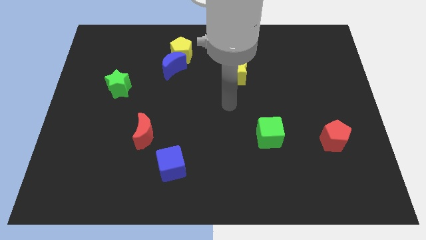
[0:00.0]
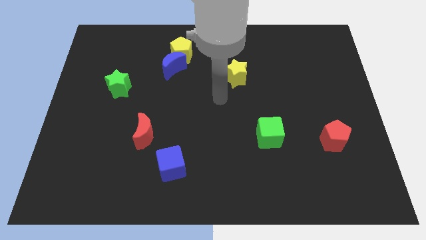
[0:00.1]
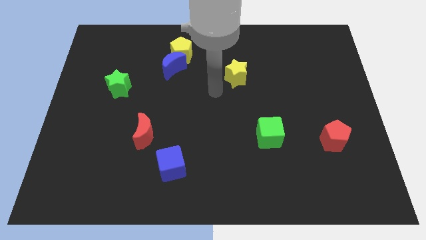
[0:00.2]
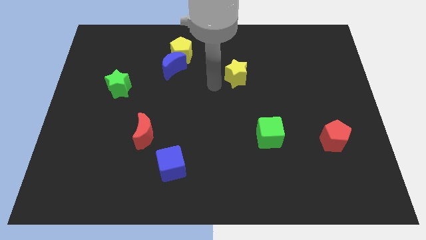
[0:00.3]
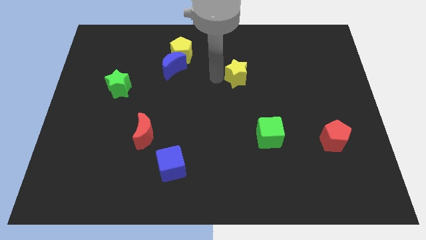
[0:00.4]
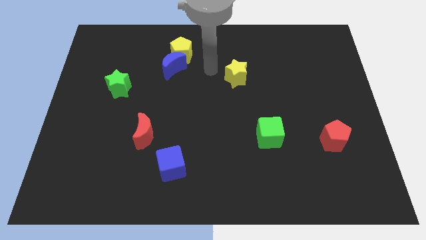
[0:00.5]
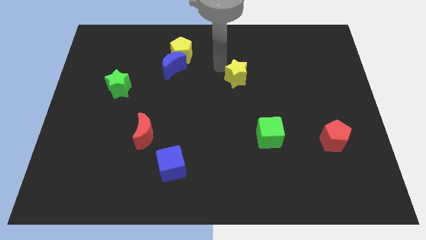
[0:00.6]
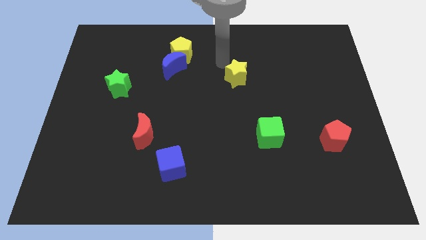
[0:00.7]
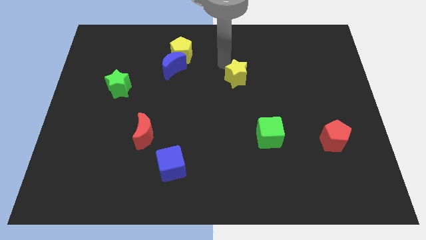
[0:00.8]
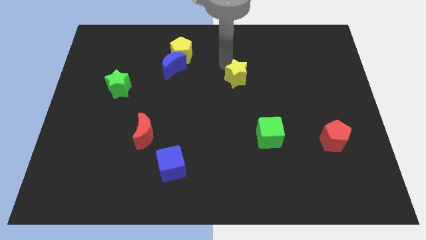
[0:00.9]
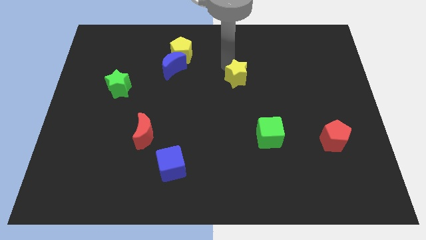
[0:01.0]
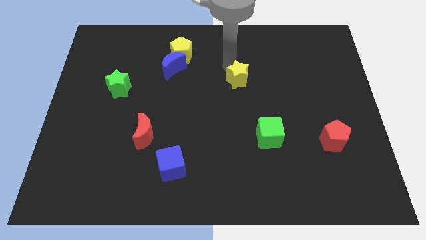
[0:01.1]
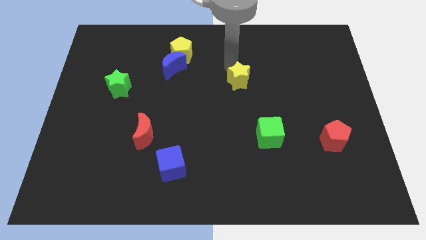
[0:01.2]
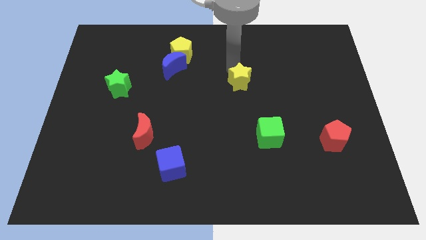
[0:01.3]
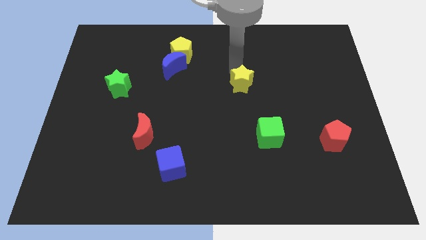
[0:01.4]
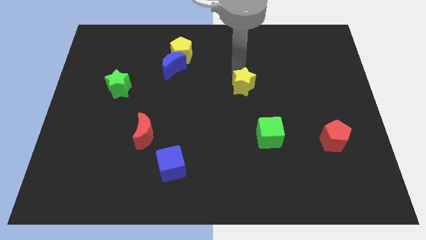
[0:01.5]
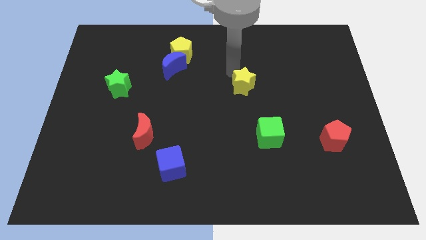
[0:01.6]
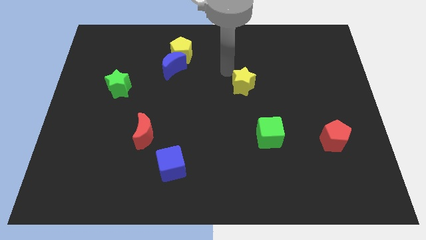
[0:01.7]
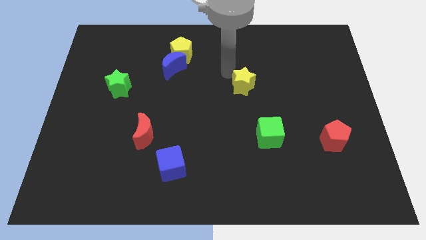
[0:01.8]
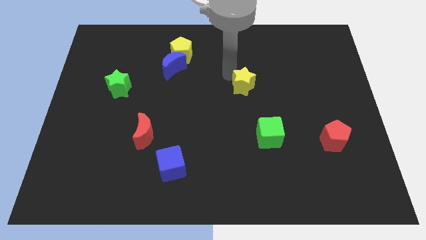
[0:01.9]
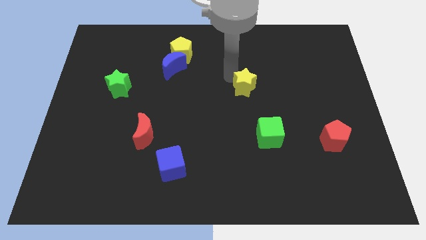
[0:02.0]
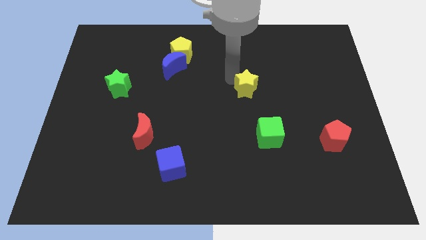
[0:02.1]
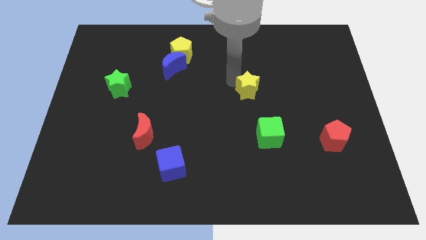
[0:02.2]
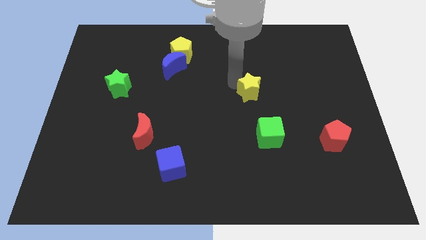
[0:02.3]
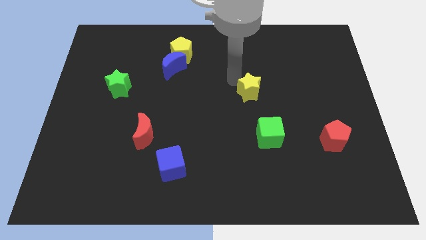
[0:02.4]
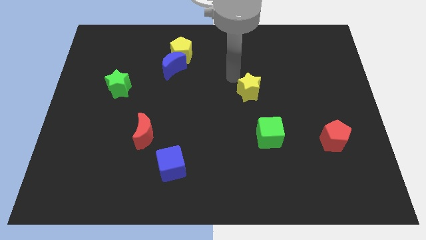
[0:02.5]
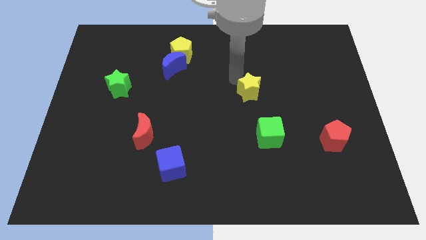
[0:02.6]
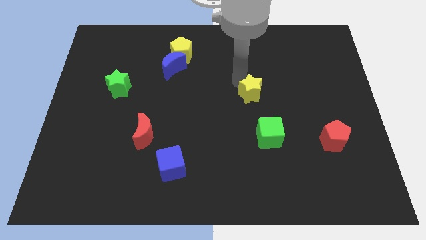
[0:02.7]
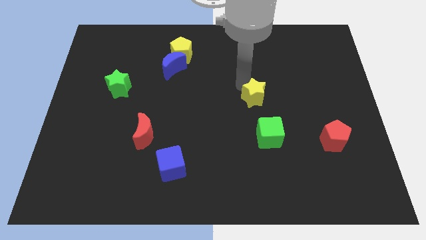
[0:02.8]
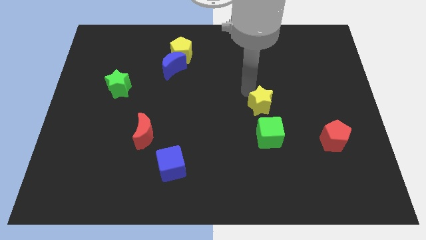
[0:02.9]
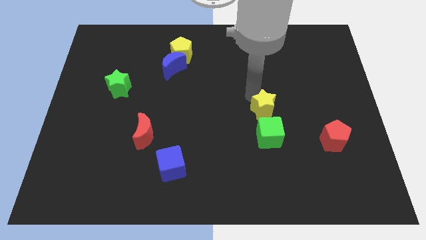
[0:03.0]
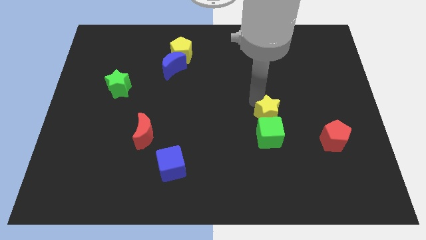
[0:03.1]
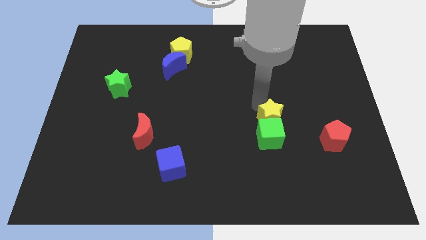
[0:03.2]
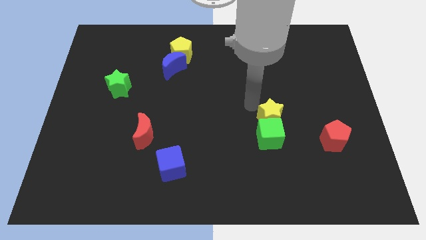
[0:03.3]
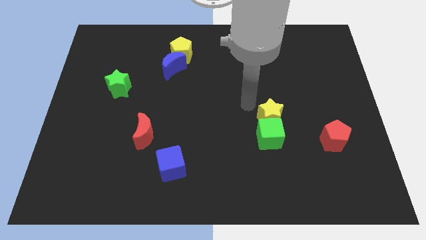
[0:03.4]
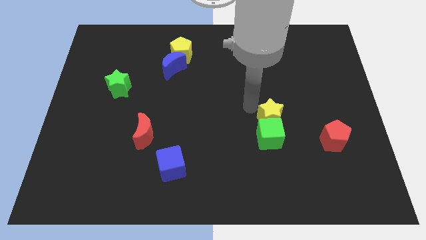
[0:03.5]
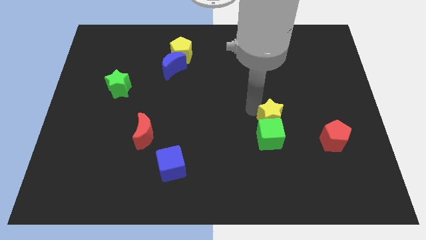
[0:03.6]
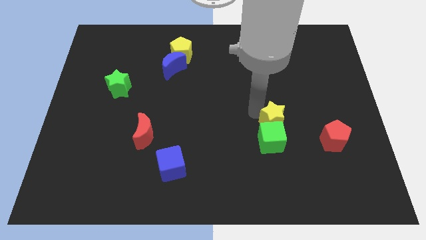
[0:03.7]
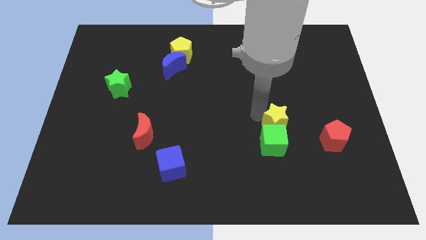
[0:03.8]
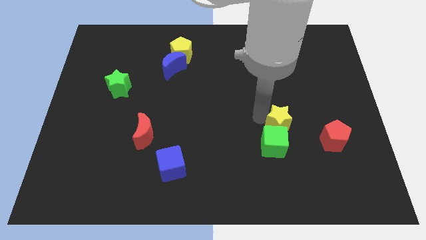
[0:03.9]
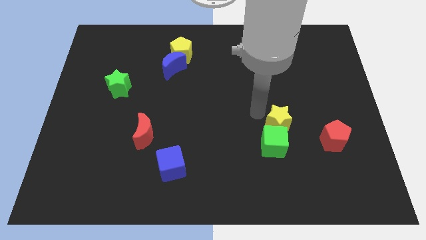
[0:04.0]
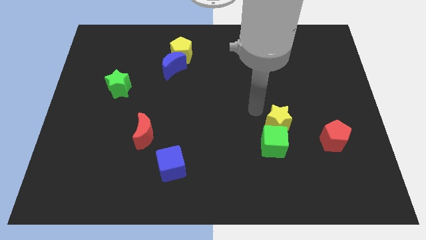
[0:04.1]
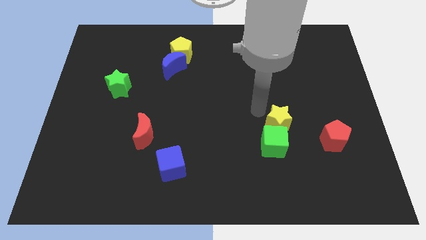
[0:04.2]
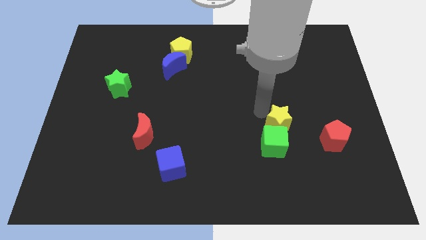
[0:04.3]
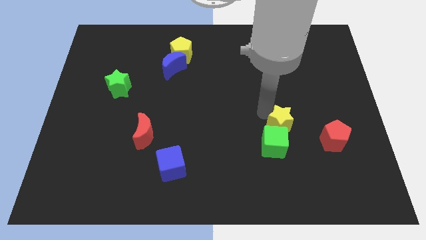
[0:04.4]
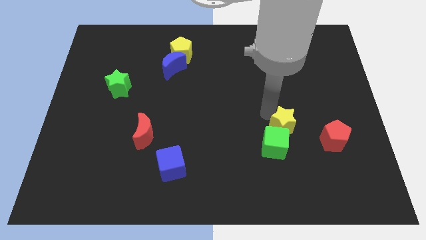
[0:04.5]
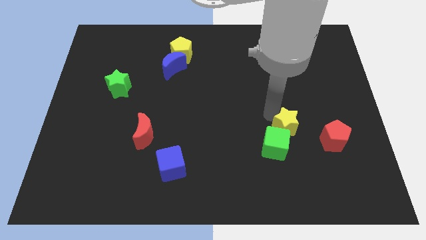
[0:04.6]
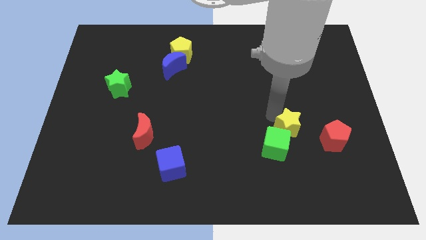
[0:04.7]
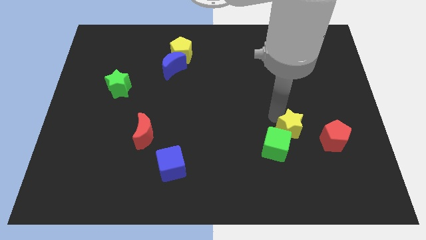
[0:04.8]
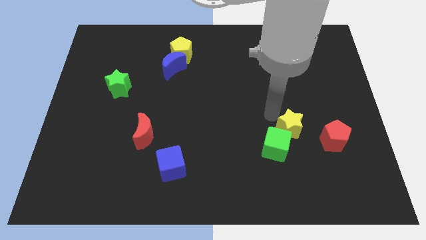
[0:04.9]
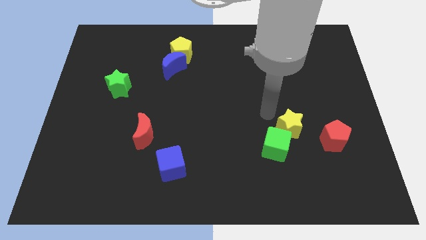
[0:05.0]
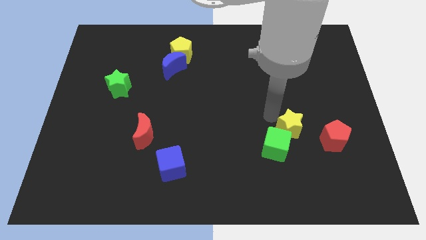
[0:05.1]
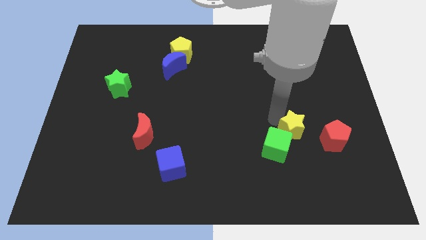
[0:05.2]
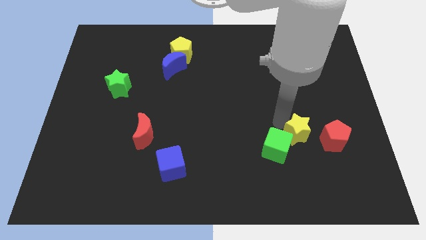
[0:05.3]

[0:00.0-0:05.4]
slide the yellow star downwards and then right

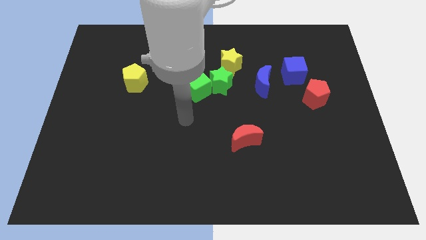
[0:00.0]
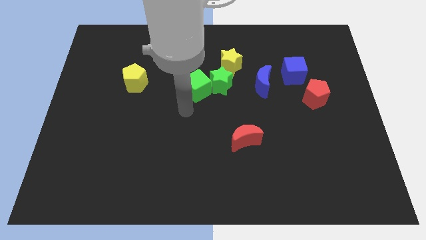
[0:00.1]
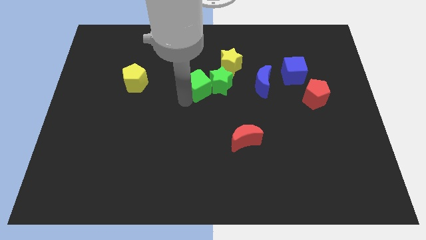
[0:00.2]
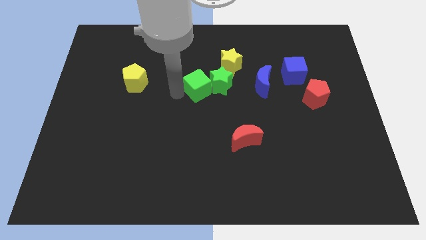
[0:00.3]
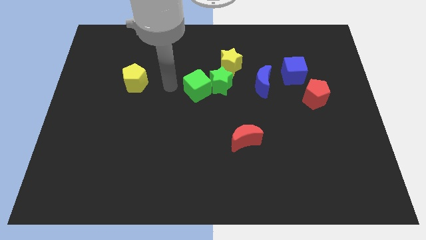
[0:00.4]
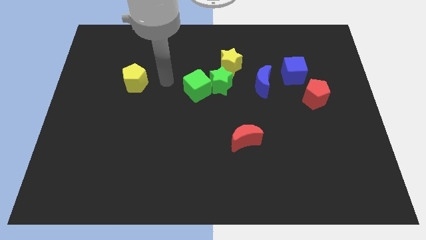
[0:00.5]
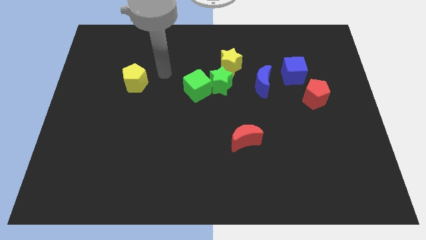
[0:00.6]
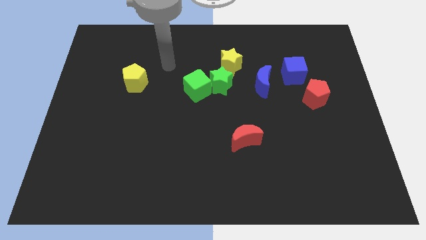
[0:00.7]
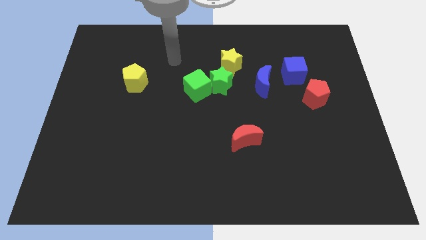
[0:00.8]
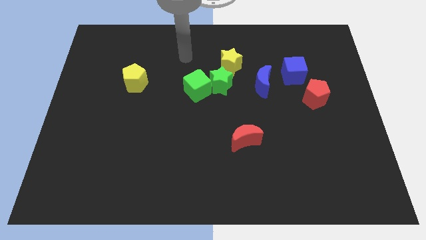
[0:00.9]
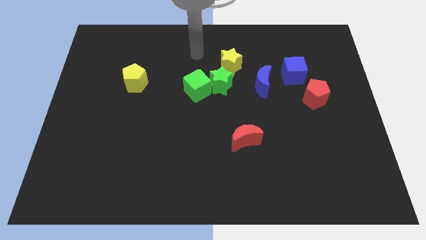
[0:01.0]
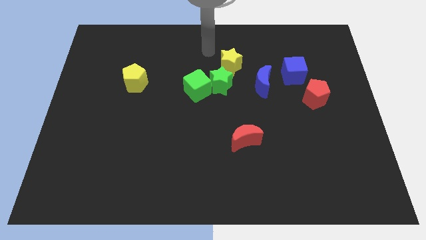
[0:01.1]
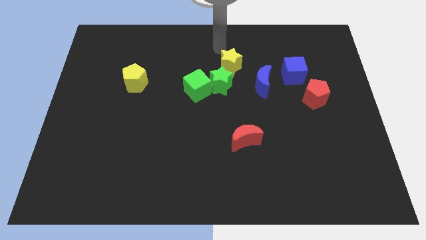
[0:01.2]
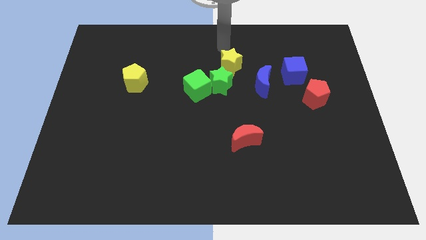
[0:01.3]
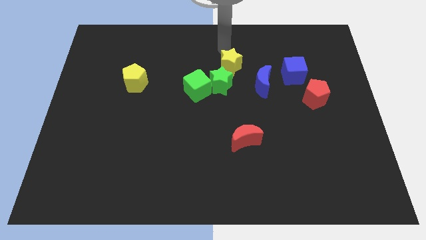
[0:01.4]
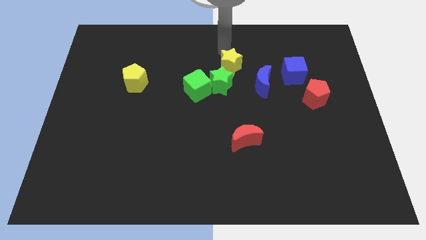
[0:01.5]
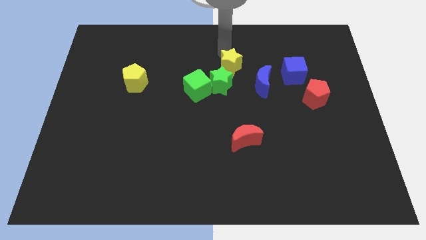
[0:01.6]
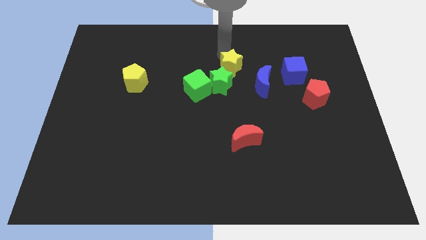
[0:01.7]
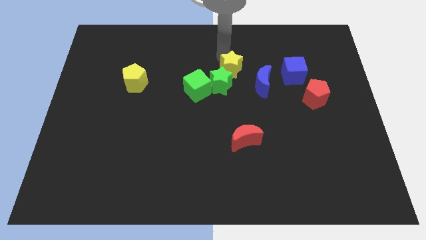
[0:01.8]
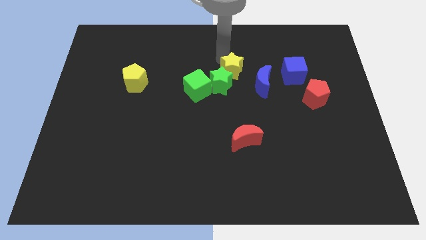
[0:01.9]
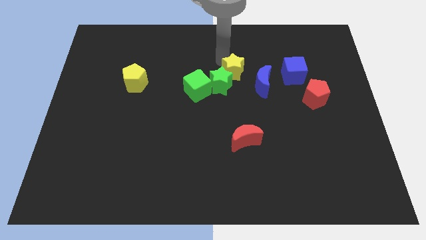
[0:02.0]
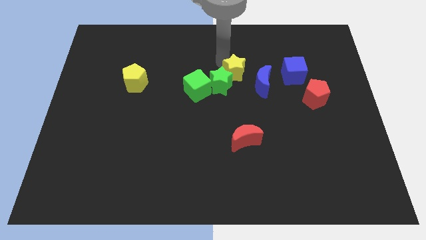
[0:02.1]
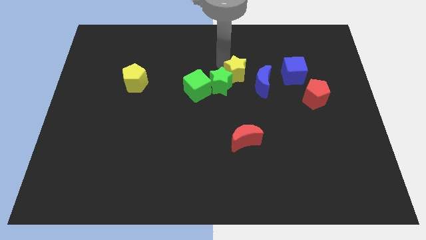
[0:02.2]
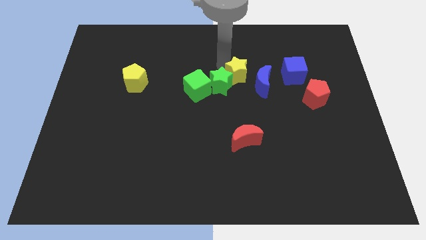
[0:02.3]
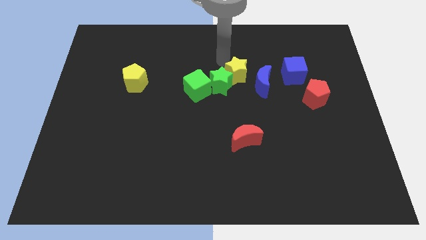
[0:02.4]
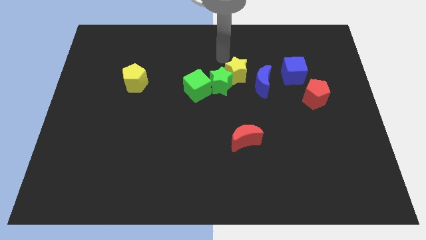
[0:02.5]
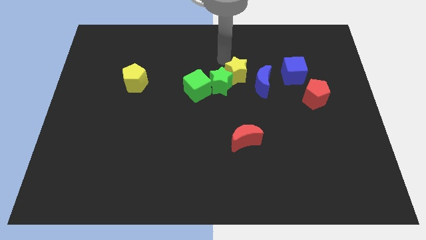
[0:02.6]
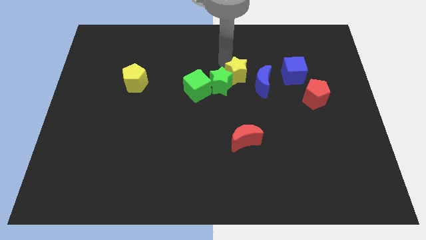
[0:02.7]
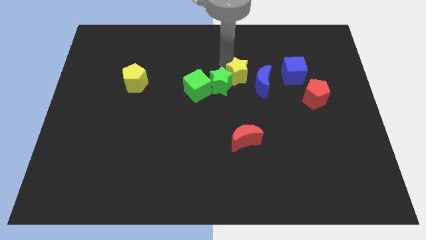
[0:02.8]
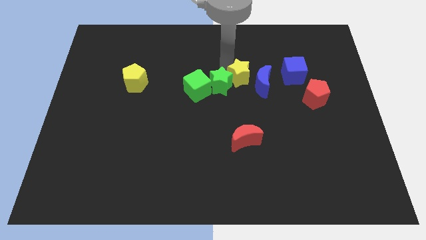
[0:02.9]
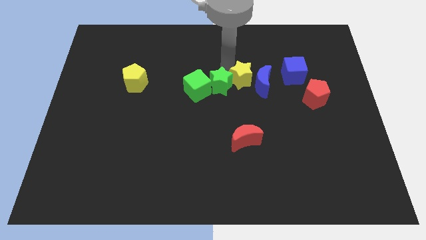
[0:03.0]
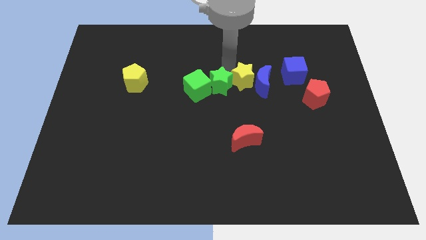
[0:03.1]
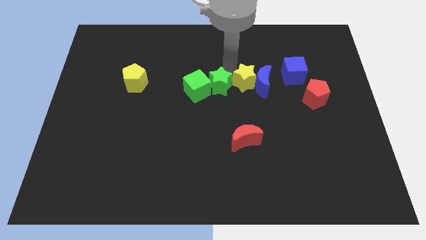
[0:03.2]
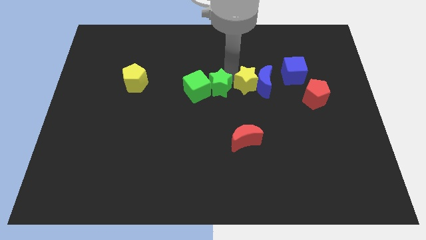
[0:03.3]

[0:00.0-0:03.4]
slightly move the yellow star down and right
